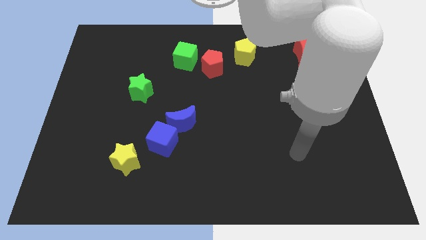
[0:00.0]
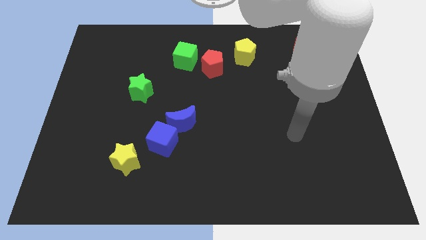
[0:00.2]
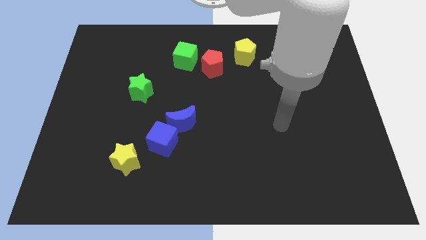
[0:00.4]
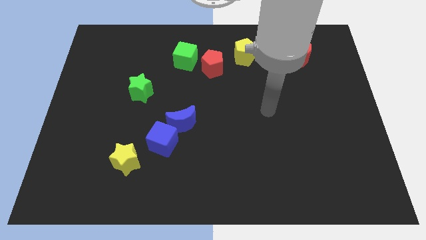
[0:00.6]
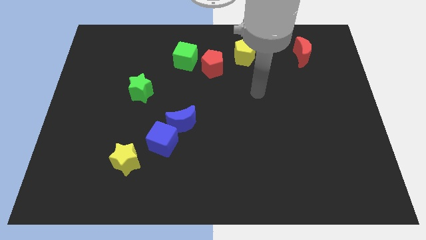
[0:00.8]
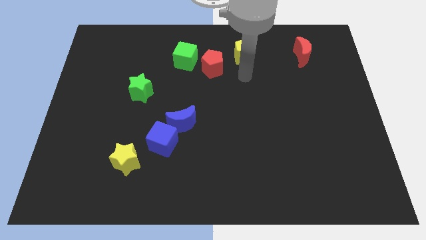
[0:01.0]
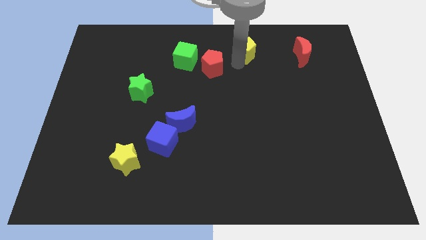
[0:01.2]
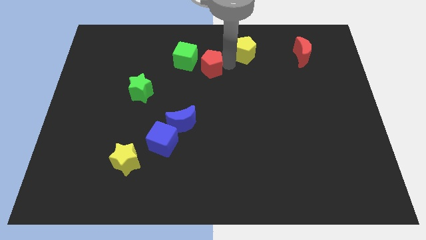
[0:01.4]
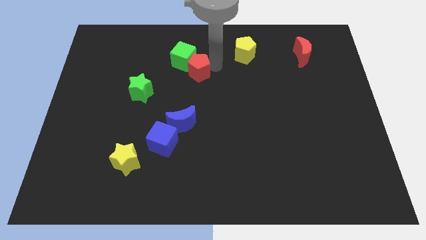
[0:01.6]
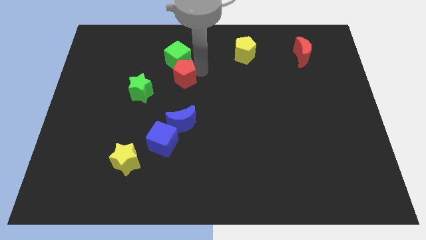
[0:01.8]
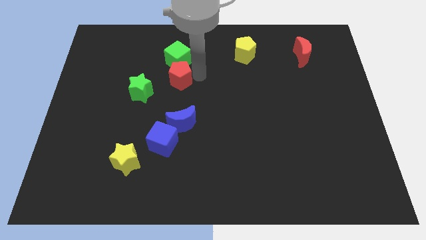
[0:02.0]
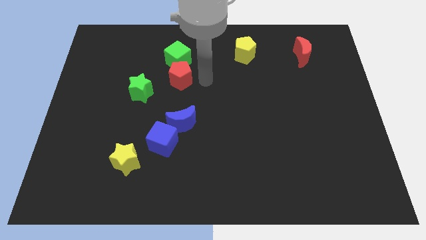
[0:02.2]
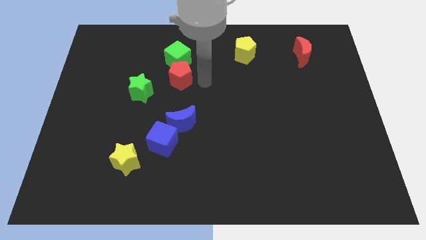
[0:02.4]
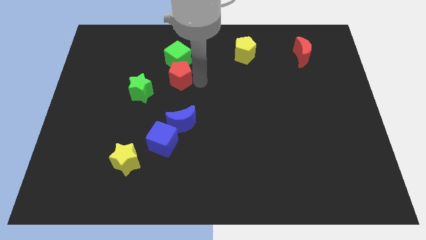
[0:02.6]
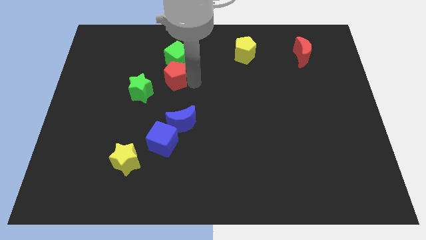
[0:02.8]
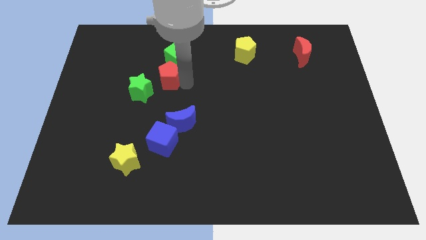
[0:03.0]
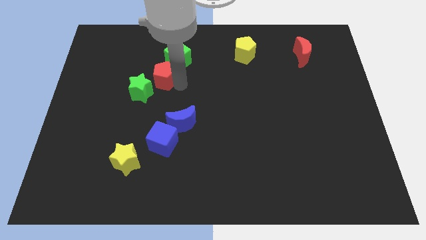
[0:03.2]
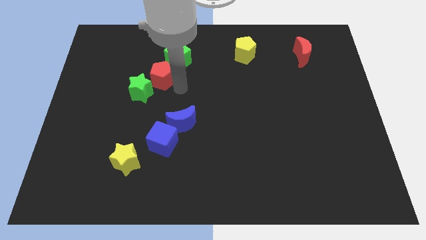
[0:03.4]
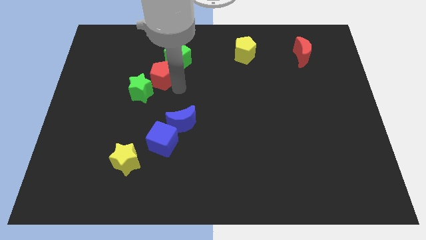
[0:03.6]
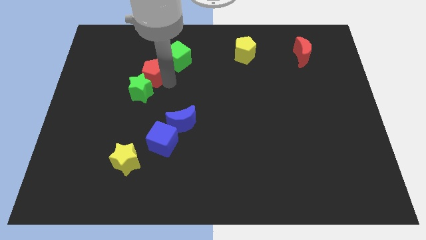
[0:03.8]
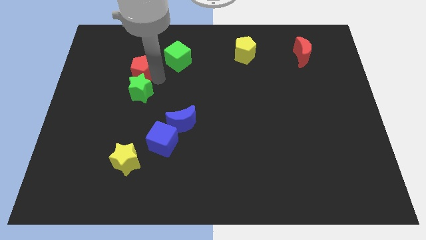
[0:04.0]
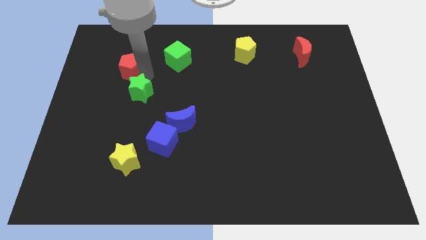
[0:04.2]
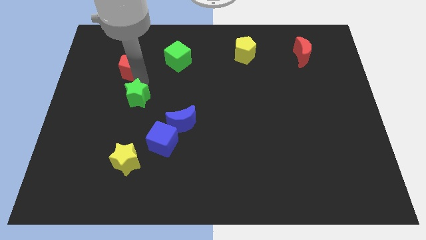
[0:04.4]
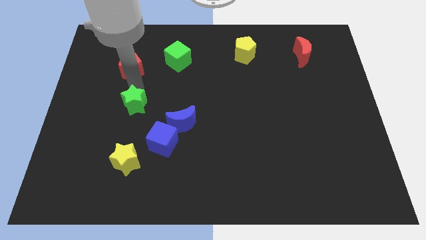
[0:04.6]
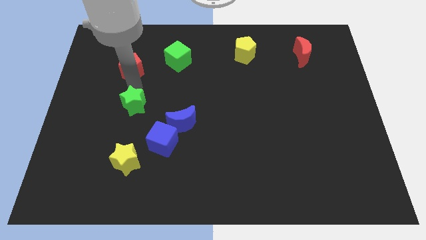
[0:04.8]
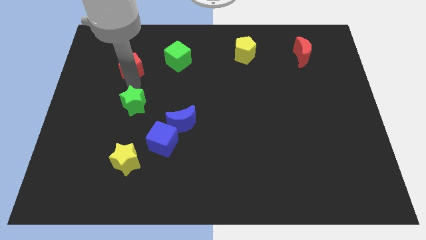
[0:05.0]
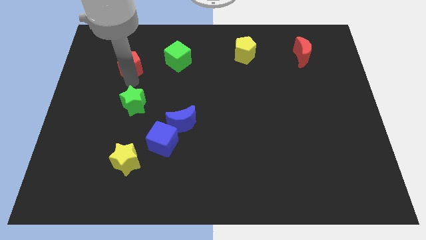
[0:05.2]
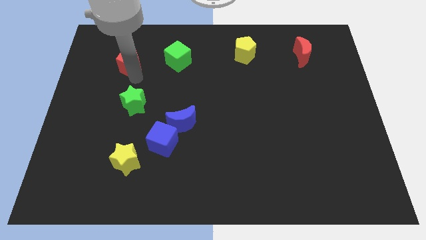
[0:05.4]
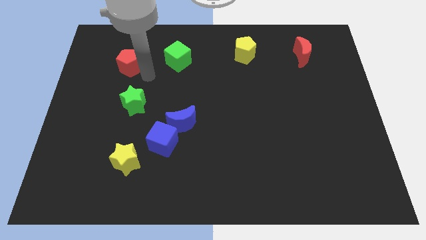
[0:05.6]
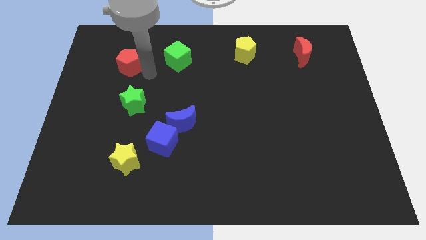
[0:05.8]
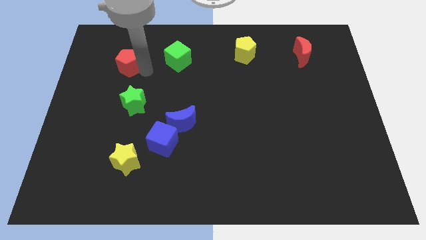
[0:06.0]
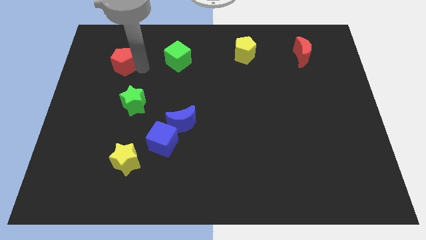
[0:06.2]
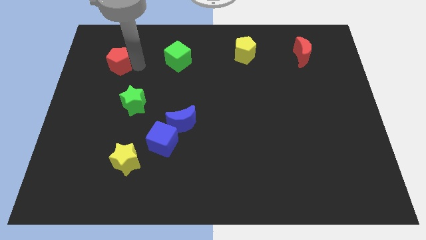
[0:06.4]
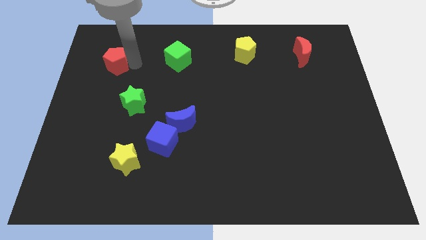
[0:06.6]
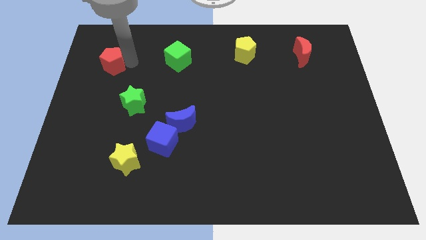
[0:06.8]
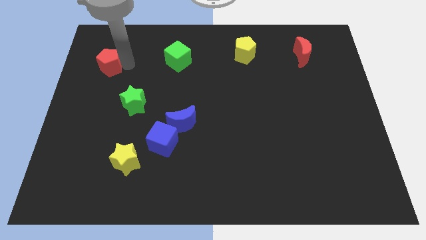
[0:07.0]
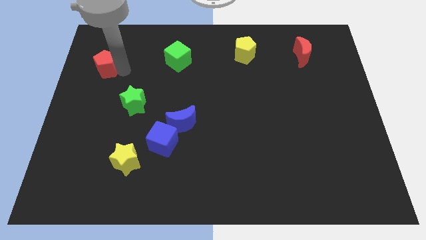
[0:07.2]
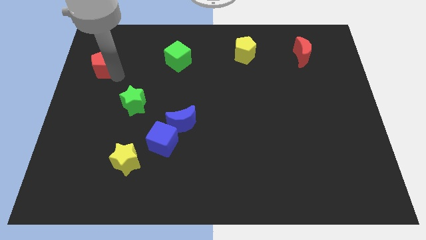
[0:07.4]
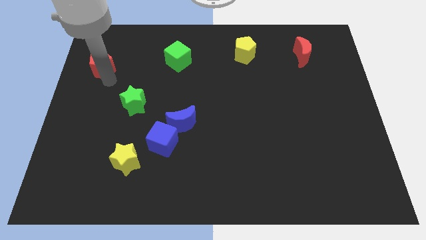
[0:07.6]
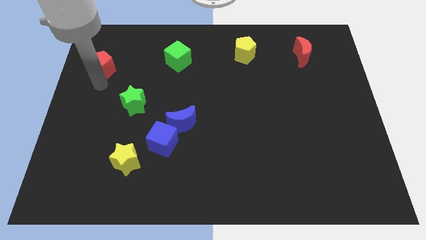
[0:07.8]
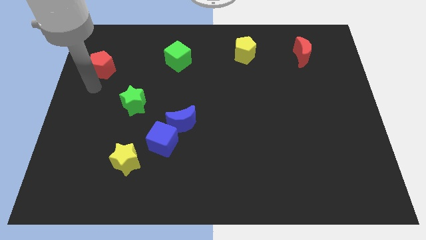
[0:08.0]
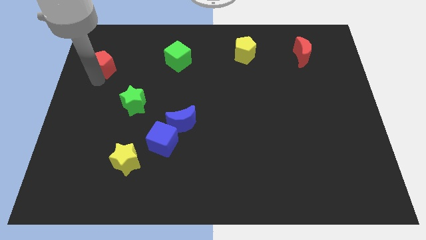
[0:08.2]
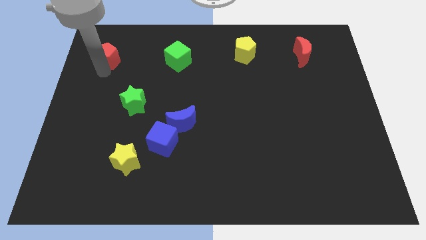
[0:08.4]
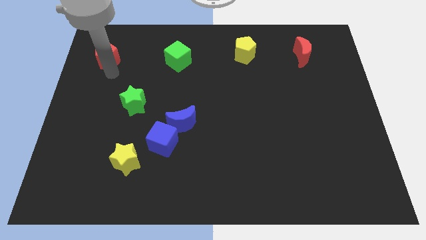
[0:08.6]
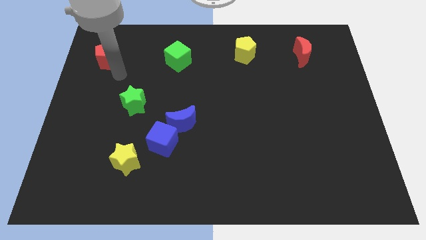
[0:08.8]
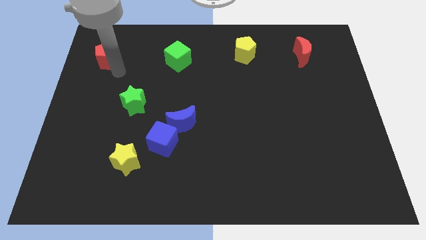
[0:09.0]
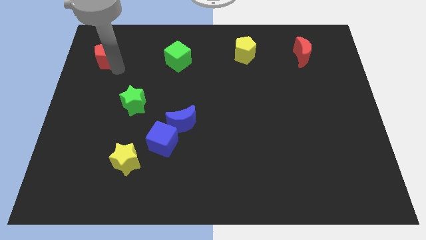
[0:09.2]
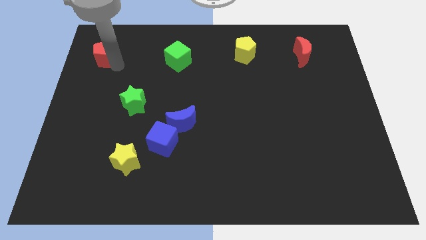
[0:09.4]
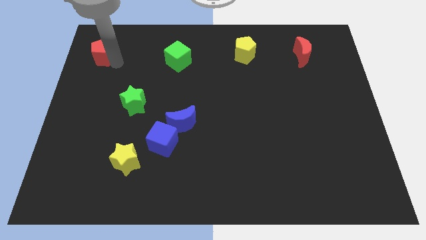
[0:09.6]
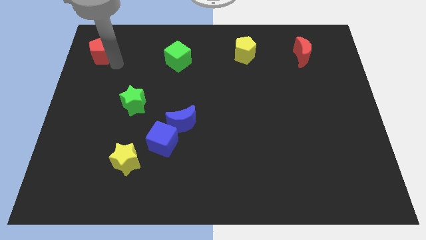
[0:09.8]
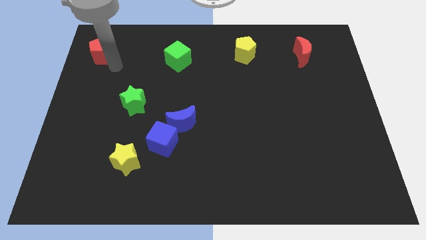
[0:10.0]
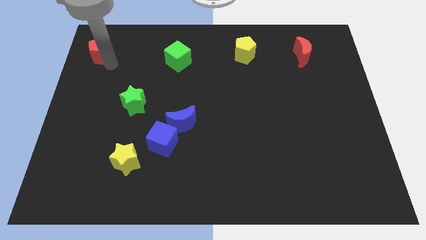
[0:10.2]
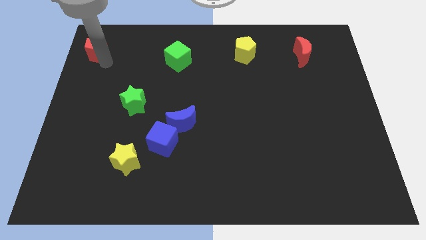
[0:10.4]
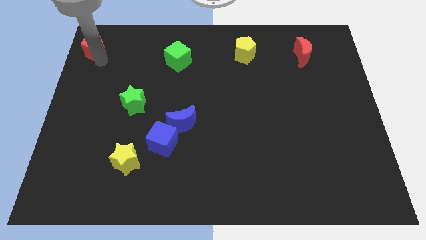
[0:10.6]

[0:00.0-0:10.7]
put the red pentagon to the top left of the board

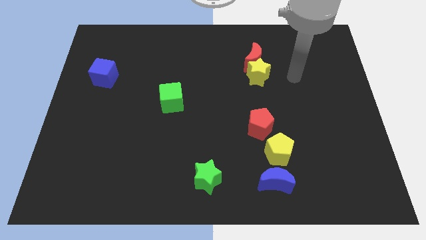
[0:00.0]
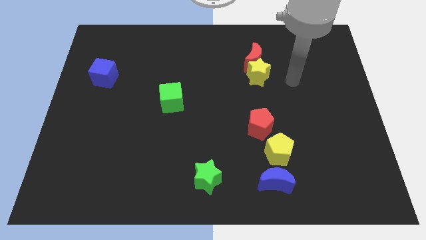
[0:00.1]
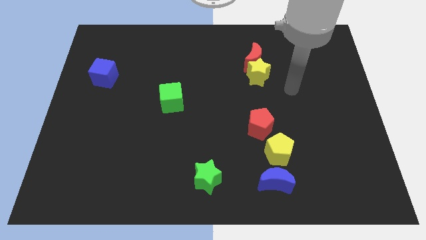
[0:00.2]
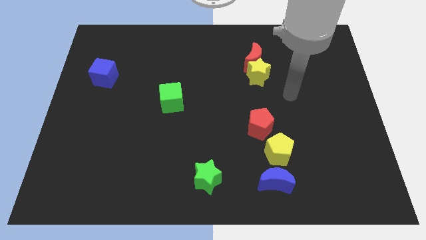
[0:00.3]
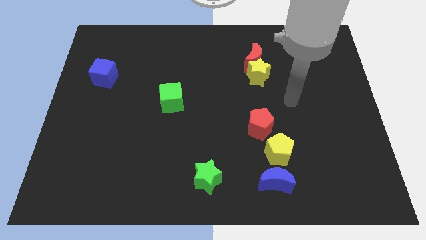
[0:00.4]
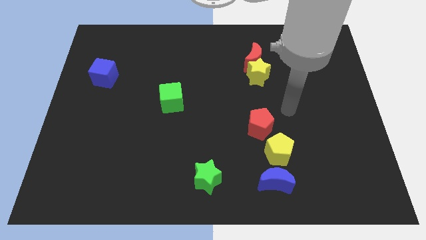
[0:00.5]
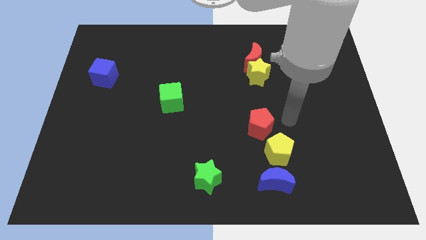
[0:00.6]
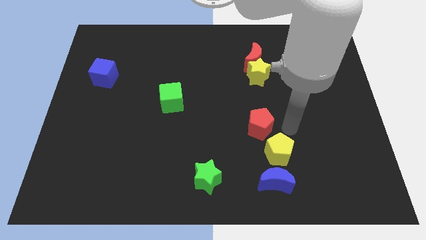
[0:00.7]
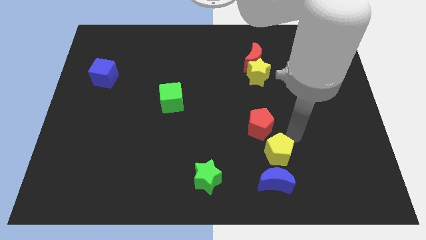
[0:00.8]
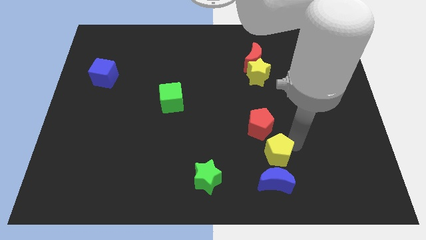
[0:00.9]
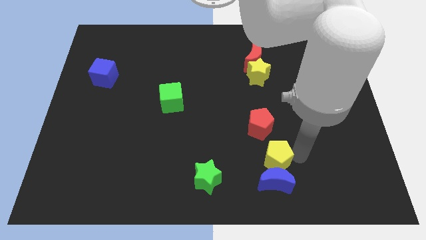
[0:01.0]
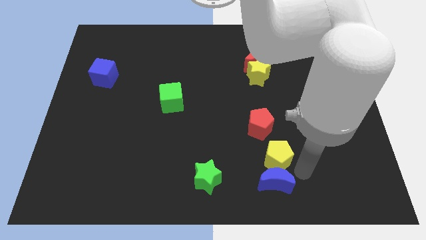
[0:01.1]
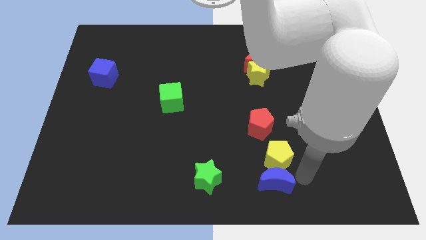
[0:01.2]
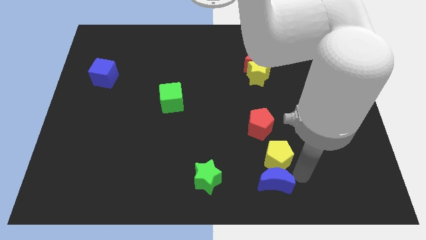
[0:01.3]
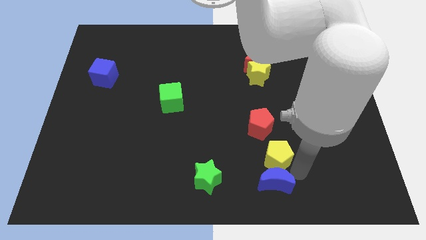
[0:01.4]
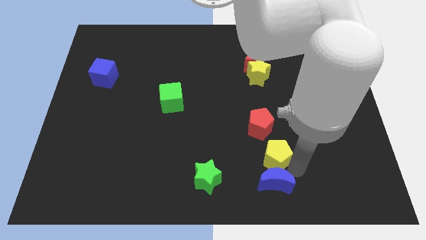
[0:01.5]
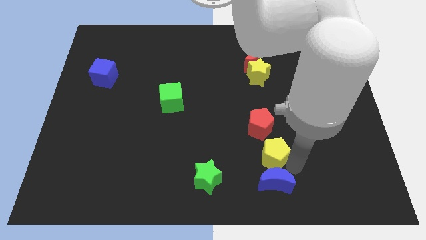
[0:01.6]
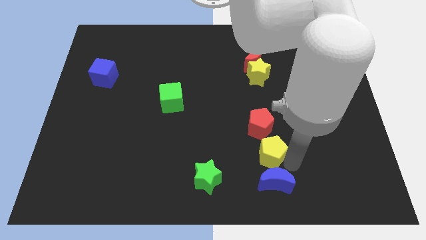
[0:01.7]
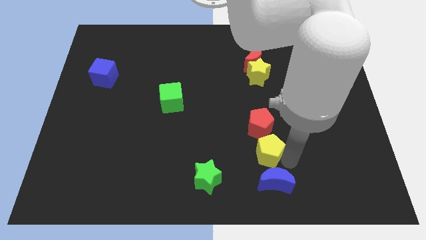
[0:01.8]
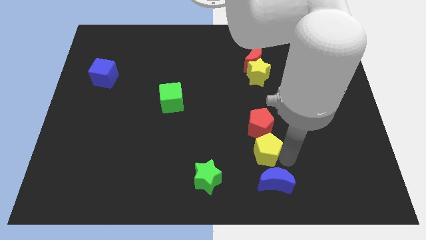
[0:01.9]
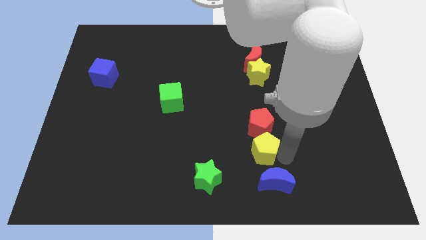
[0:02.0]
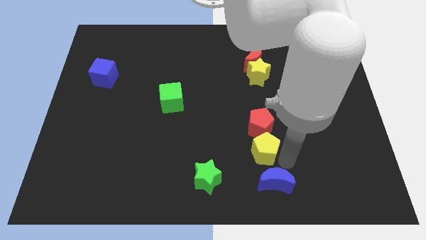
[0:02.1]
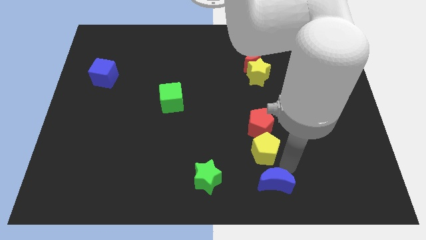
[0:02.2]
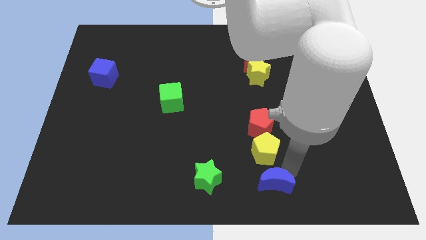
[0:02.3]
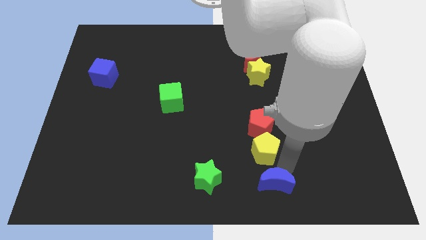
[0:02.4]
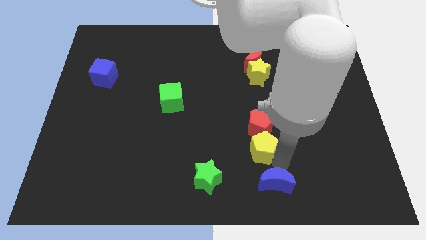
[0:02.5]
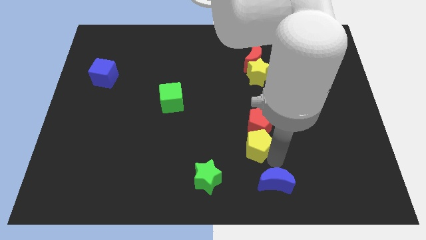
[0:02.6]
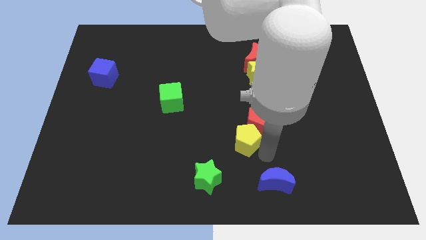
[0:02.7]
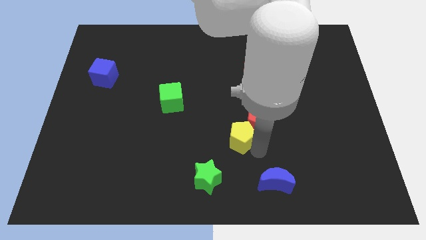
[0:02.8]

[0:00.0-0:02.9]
slide the yellow pentagon to the middle
